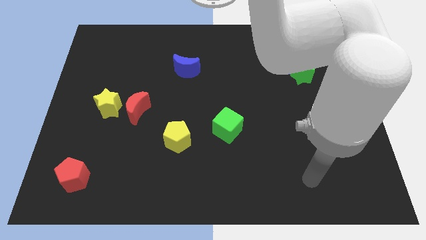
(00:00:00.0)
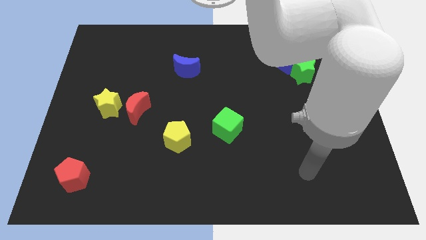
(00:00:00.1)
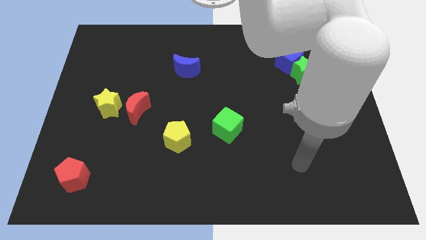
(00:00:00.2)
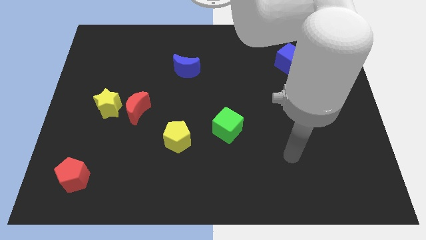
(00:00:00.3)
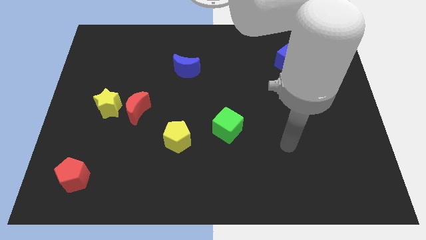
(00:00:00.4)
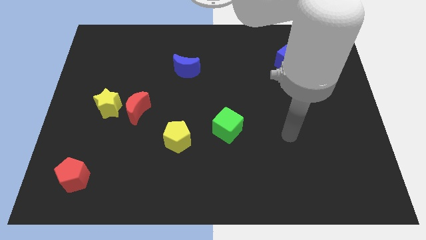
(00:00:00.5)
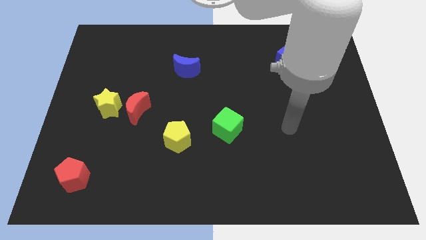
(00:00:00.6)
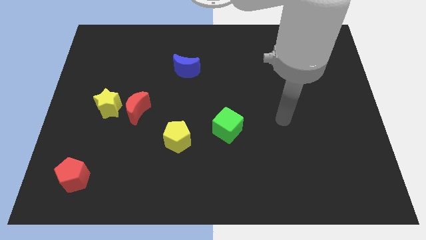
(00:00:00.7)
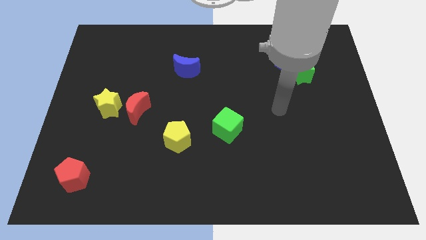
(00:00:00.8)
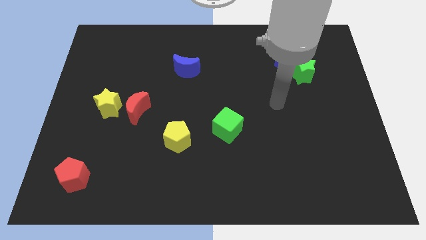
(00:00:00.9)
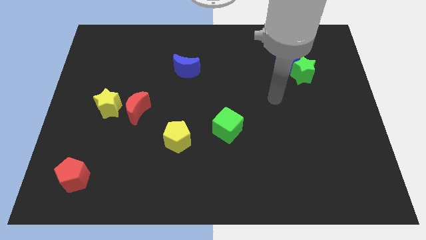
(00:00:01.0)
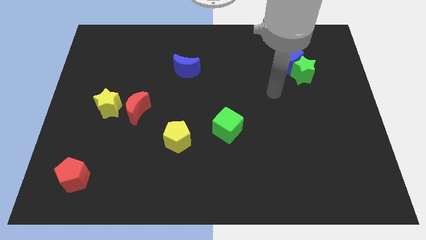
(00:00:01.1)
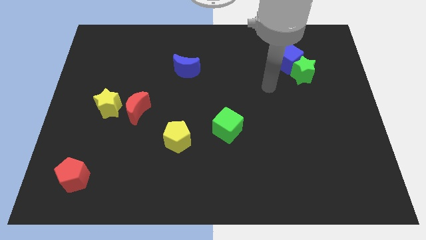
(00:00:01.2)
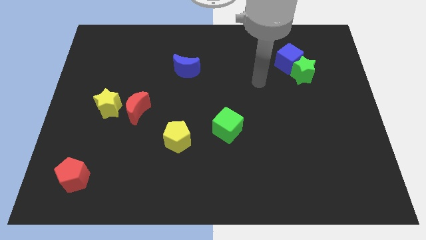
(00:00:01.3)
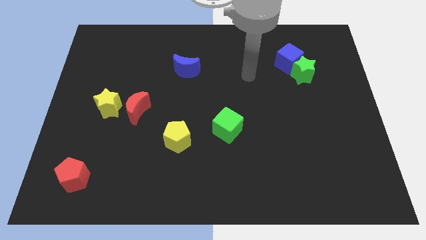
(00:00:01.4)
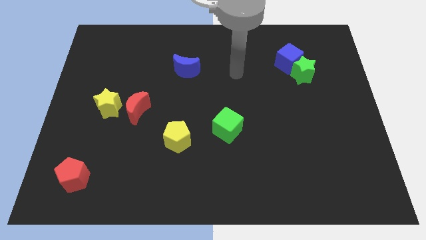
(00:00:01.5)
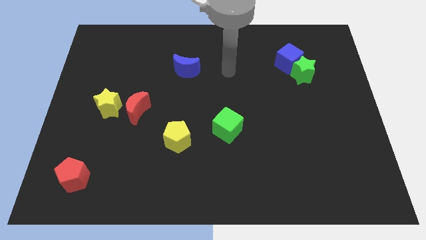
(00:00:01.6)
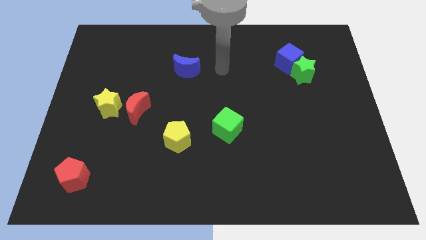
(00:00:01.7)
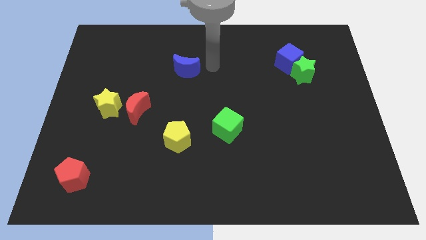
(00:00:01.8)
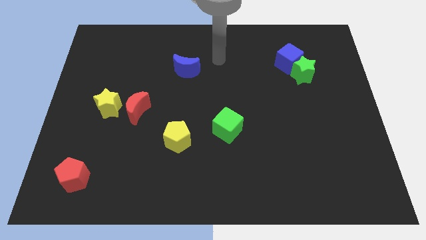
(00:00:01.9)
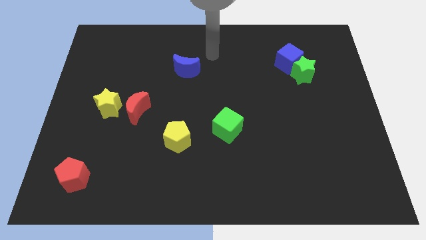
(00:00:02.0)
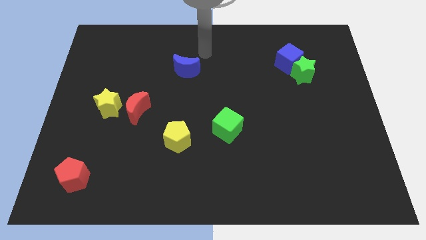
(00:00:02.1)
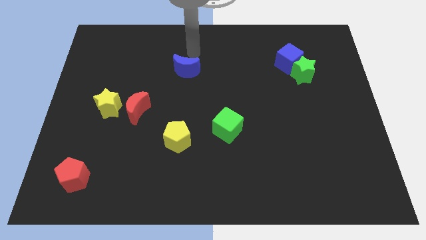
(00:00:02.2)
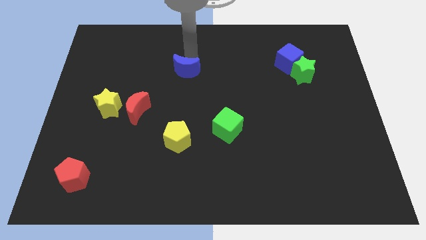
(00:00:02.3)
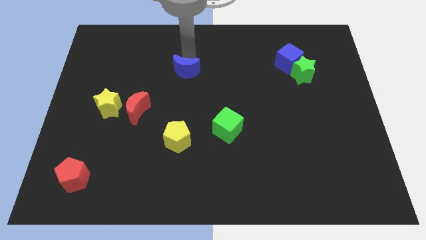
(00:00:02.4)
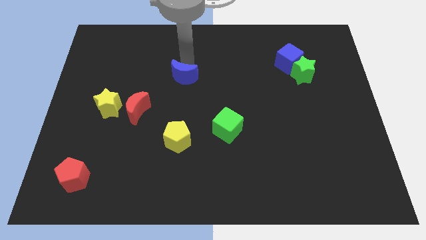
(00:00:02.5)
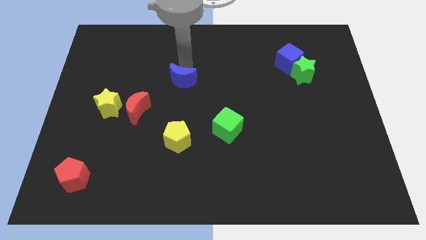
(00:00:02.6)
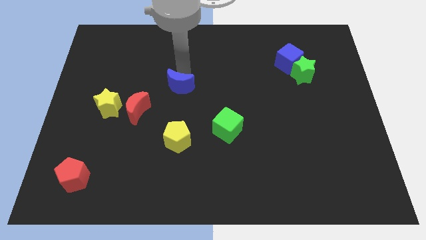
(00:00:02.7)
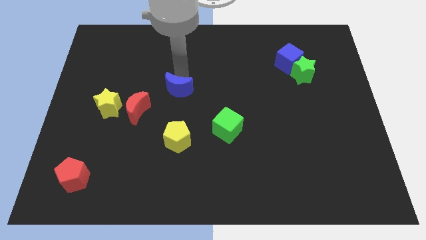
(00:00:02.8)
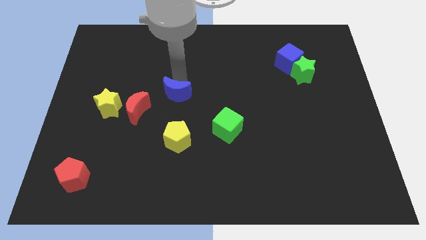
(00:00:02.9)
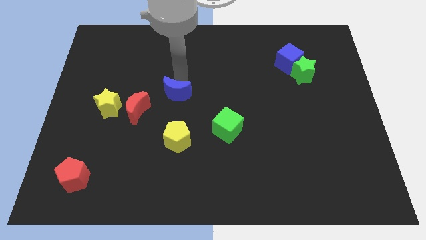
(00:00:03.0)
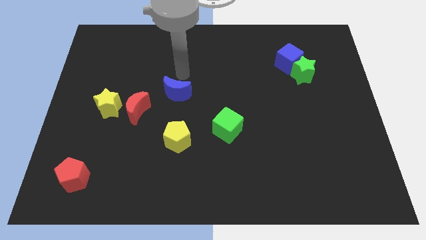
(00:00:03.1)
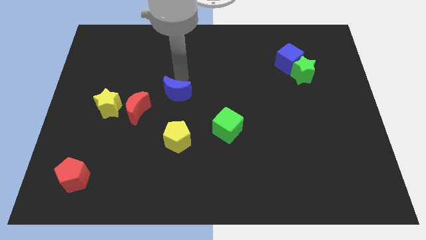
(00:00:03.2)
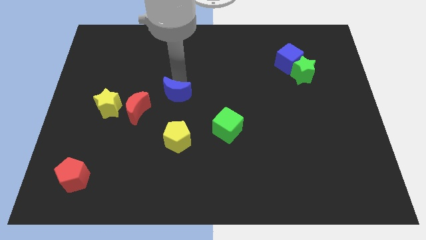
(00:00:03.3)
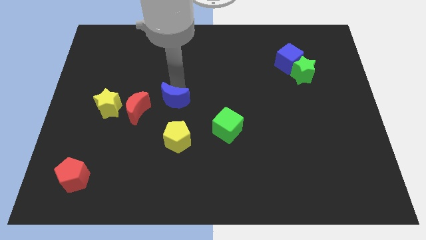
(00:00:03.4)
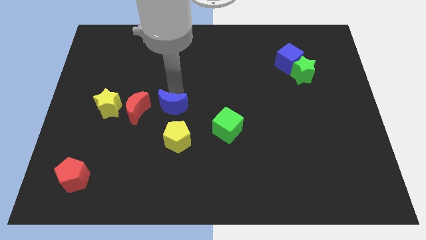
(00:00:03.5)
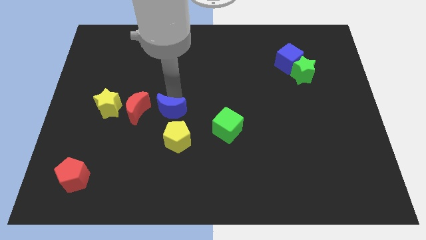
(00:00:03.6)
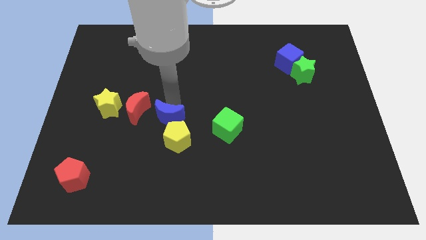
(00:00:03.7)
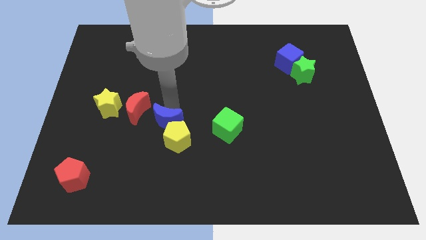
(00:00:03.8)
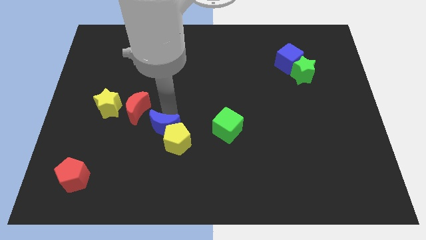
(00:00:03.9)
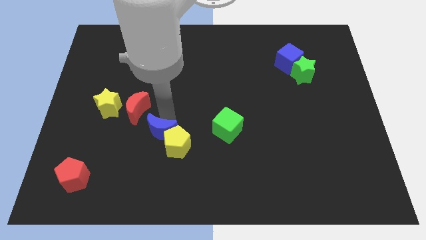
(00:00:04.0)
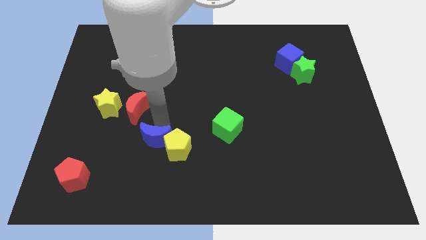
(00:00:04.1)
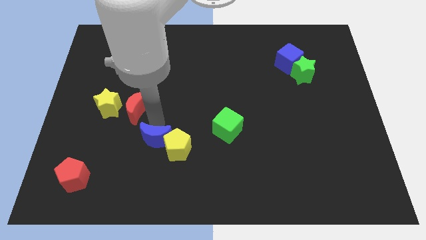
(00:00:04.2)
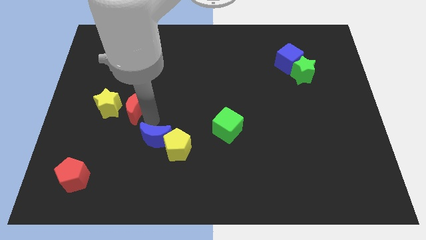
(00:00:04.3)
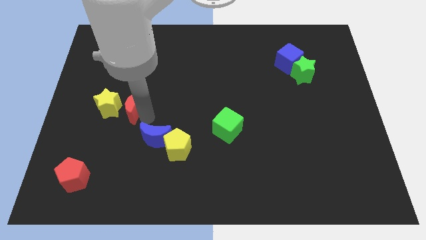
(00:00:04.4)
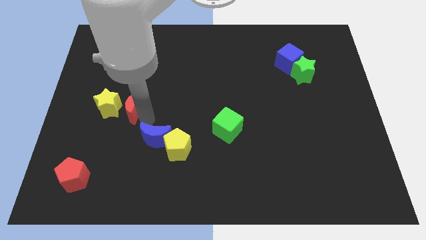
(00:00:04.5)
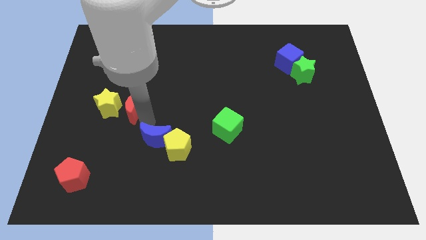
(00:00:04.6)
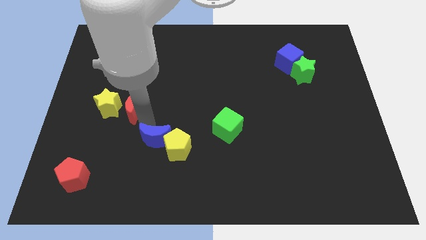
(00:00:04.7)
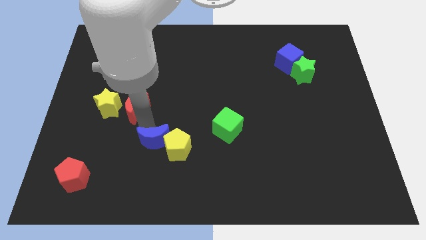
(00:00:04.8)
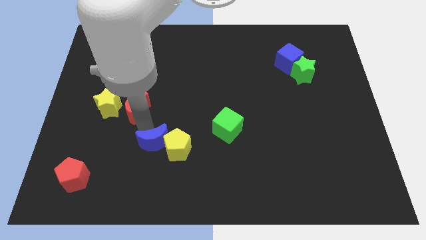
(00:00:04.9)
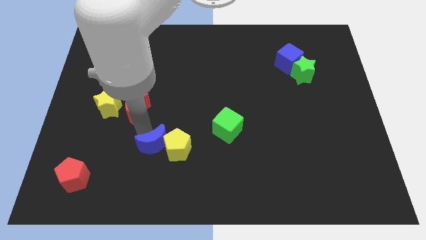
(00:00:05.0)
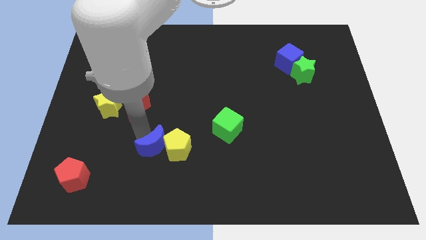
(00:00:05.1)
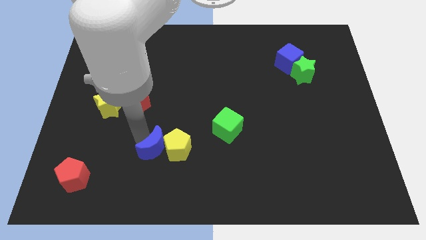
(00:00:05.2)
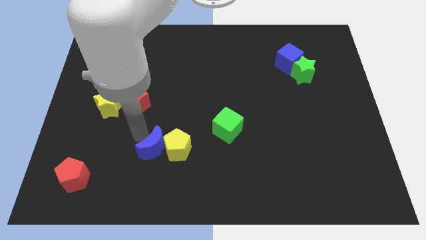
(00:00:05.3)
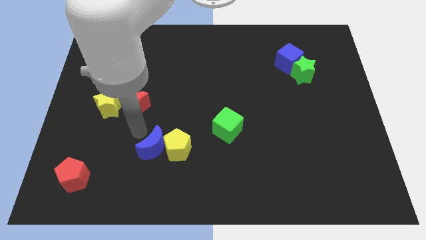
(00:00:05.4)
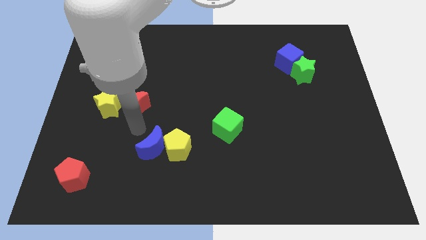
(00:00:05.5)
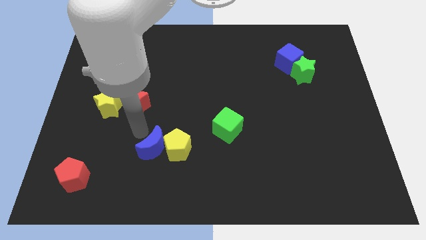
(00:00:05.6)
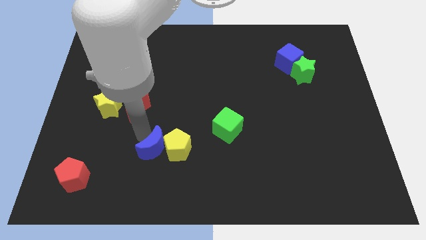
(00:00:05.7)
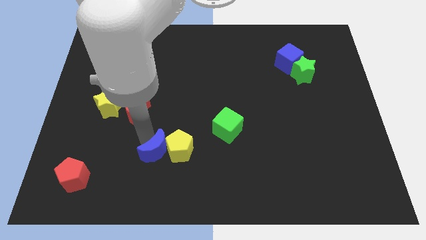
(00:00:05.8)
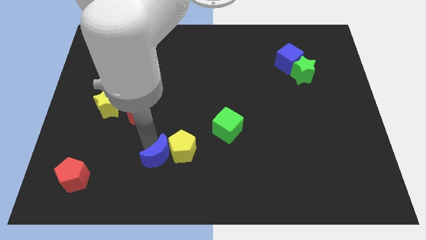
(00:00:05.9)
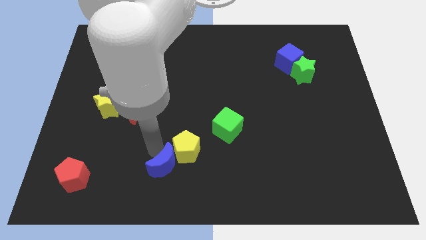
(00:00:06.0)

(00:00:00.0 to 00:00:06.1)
slide the blue moon below the yellow pentagon

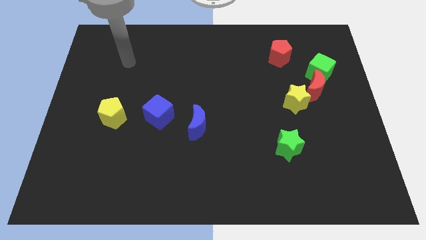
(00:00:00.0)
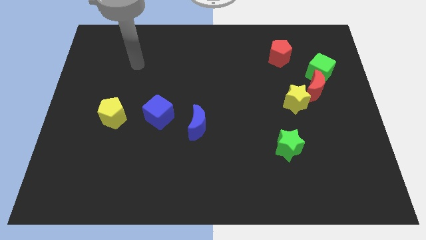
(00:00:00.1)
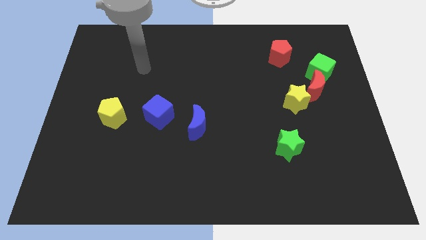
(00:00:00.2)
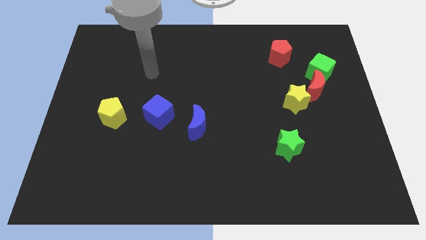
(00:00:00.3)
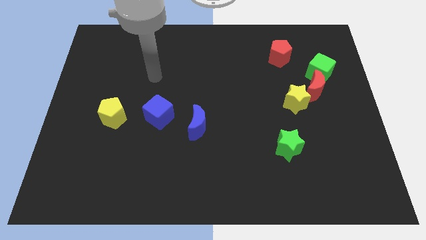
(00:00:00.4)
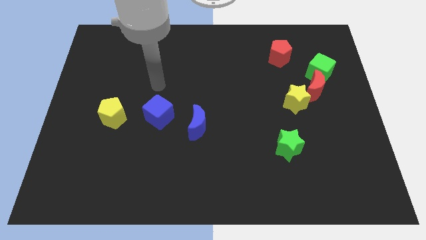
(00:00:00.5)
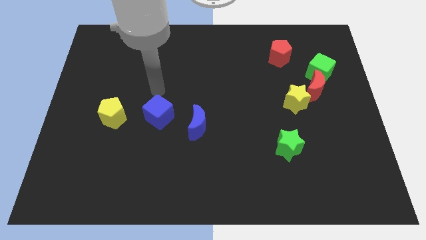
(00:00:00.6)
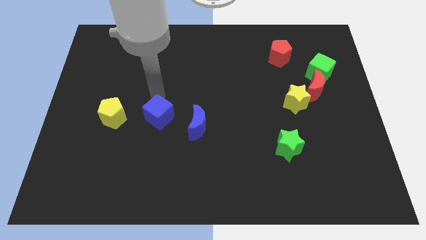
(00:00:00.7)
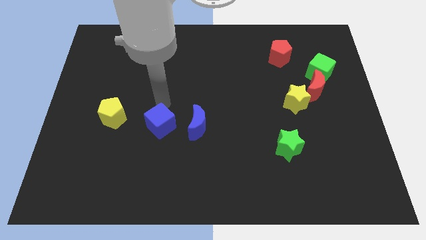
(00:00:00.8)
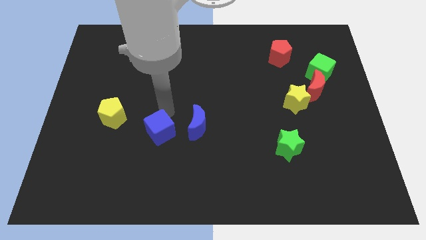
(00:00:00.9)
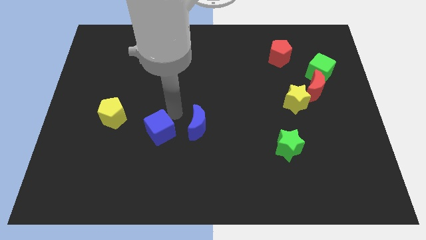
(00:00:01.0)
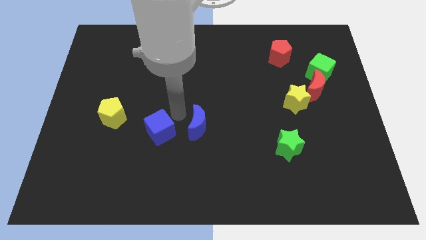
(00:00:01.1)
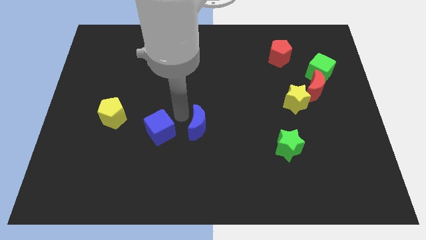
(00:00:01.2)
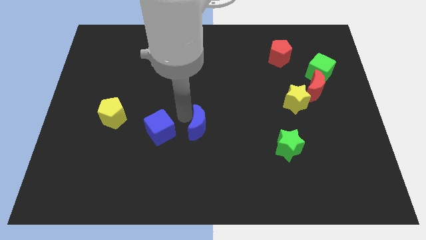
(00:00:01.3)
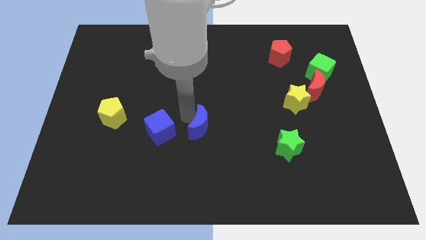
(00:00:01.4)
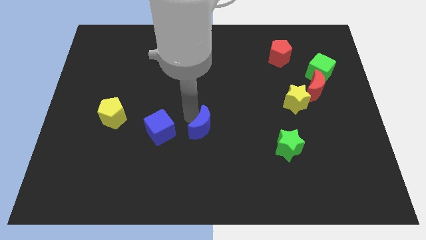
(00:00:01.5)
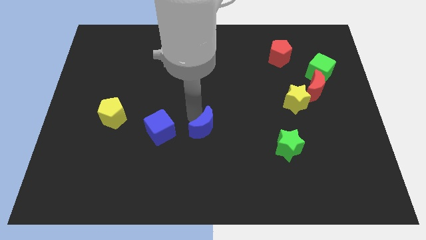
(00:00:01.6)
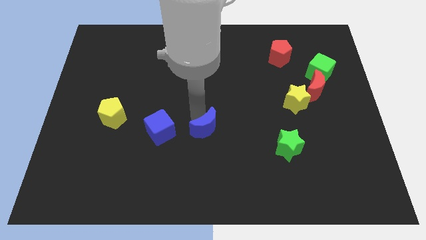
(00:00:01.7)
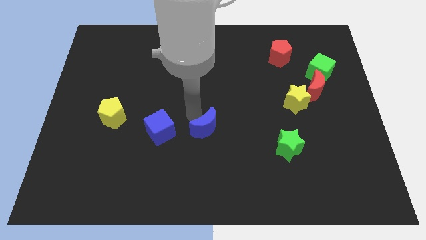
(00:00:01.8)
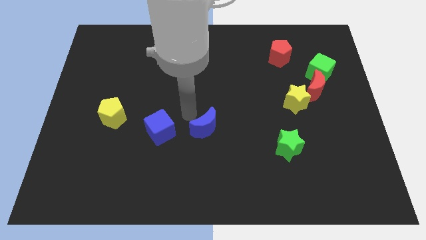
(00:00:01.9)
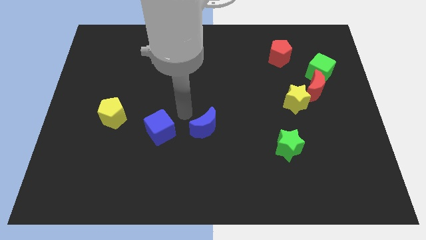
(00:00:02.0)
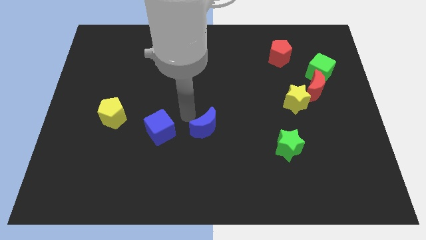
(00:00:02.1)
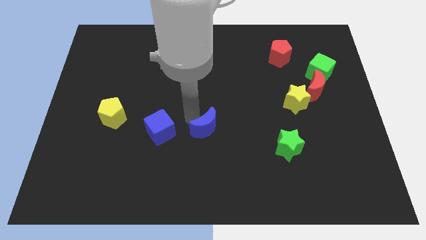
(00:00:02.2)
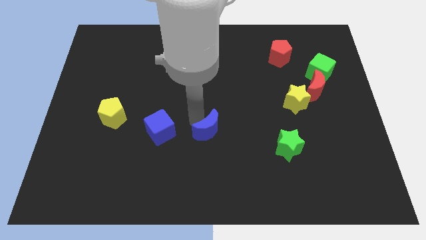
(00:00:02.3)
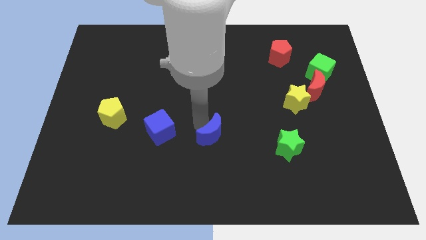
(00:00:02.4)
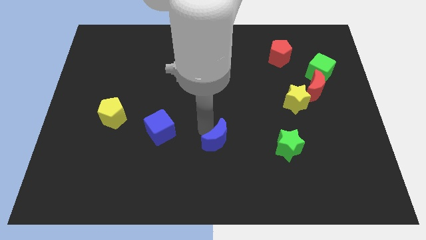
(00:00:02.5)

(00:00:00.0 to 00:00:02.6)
push the blue moon left of the green star
